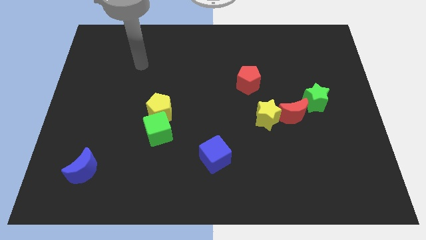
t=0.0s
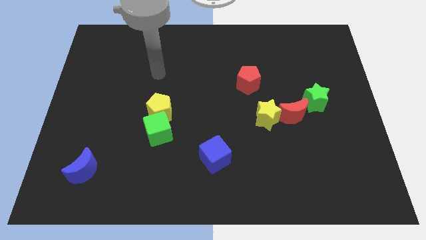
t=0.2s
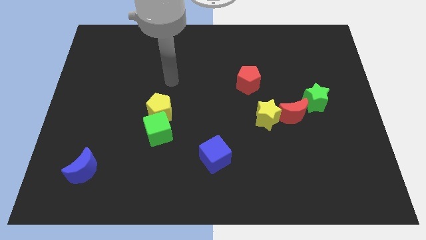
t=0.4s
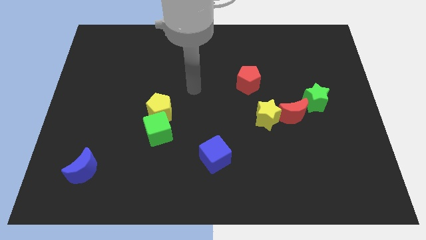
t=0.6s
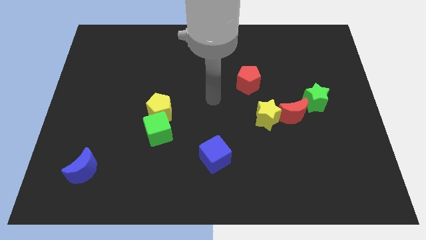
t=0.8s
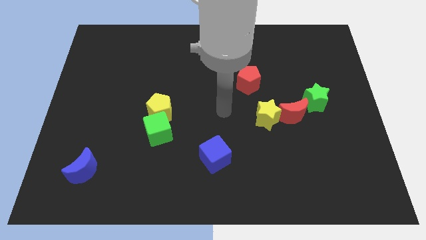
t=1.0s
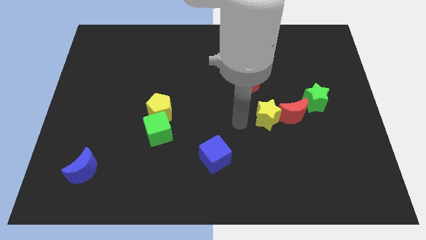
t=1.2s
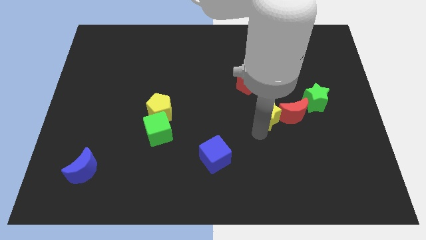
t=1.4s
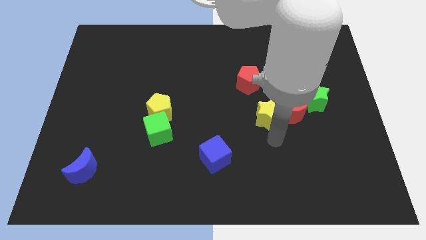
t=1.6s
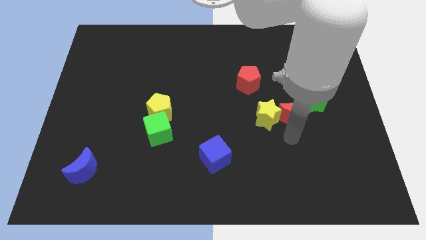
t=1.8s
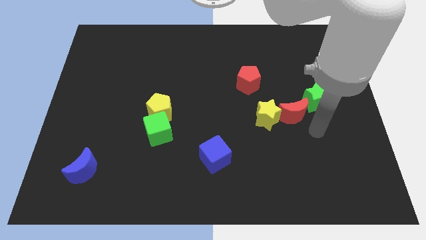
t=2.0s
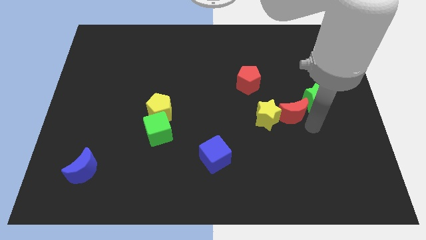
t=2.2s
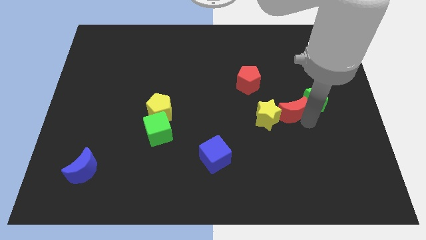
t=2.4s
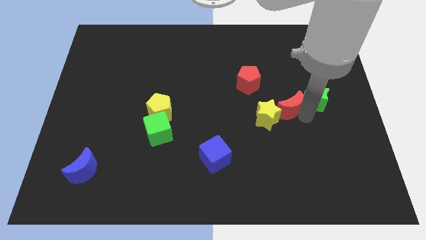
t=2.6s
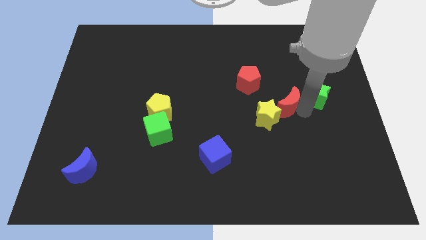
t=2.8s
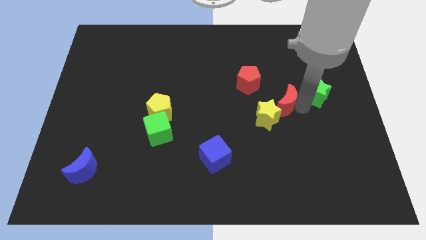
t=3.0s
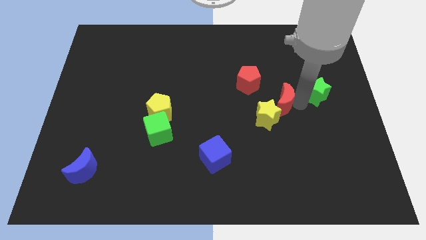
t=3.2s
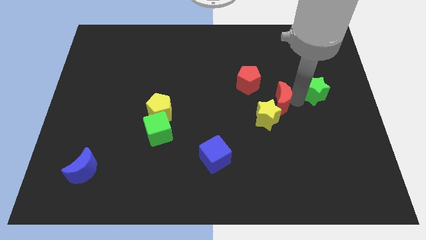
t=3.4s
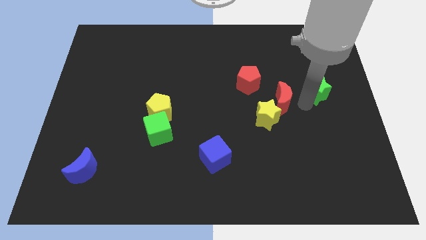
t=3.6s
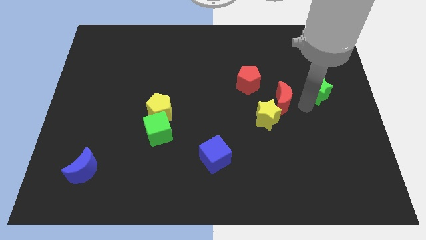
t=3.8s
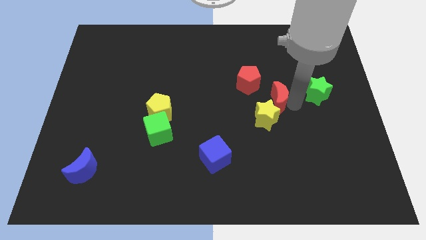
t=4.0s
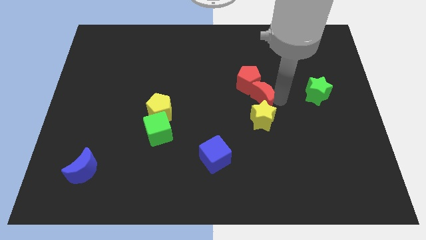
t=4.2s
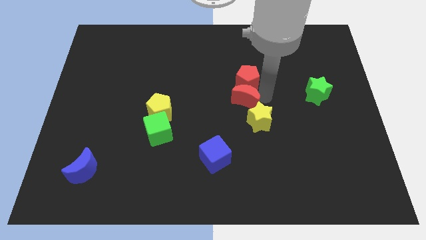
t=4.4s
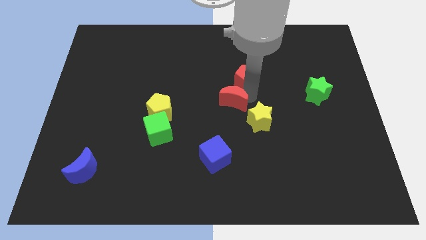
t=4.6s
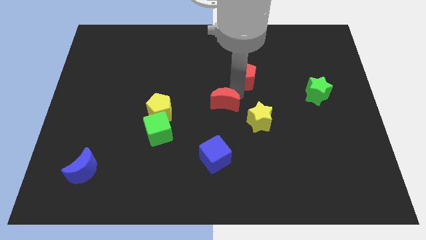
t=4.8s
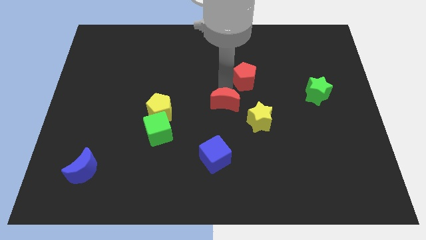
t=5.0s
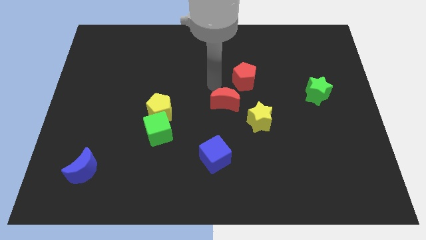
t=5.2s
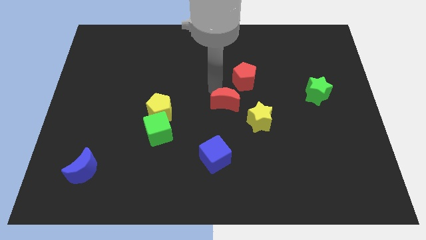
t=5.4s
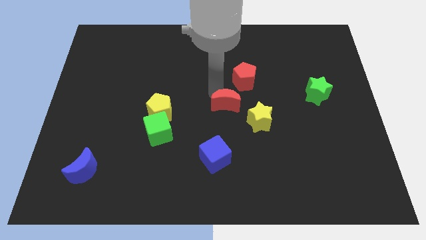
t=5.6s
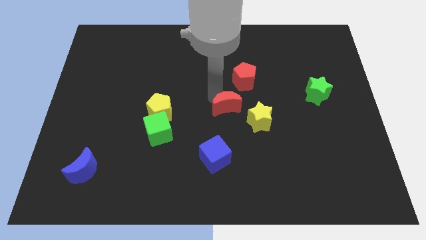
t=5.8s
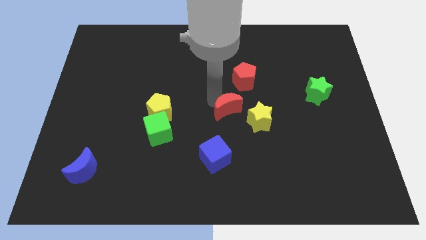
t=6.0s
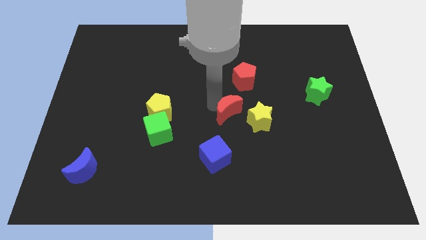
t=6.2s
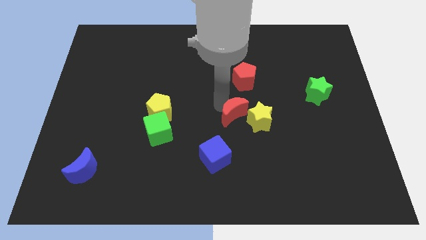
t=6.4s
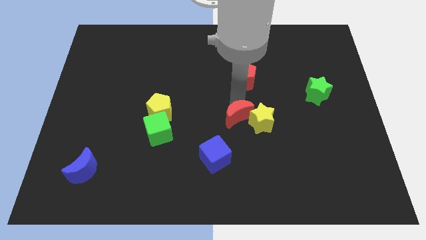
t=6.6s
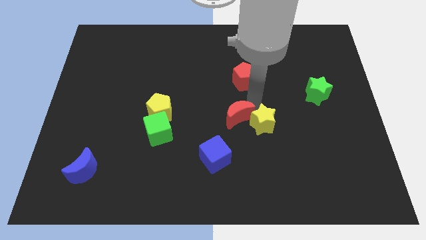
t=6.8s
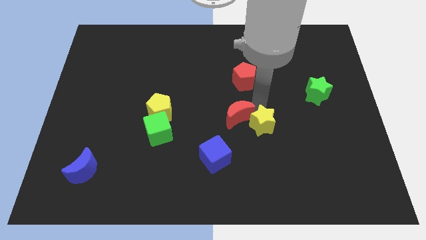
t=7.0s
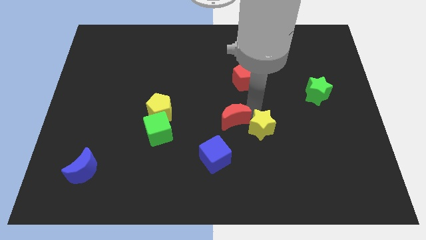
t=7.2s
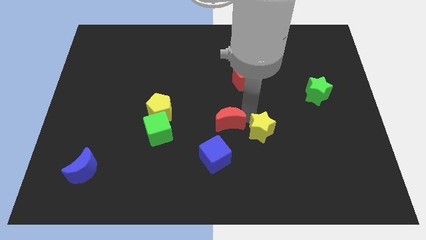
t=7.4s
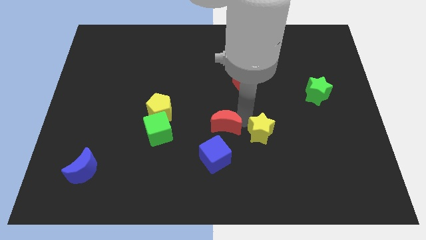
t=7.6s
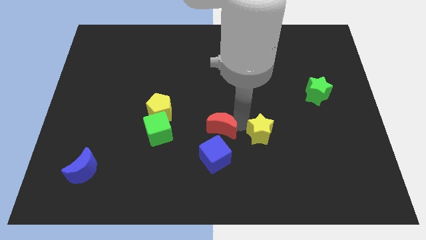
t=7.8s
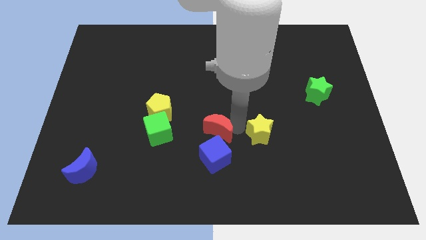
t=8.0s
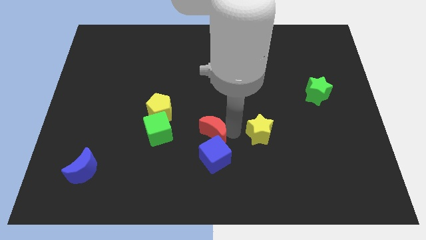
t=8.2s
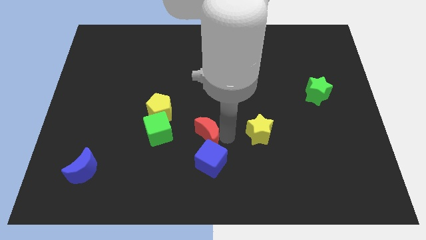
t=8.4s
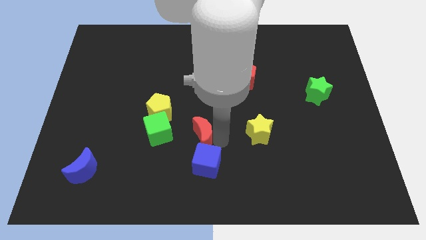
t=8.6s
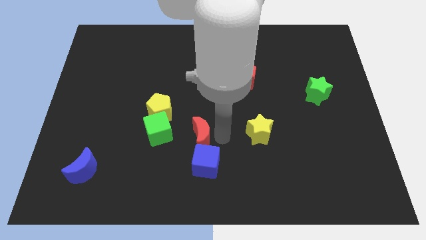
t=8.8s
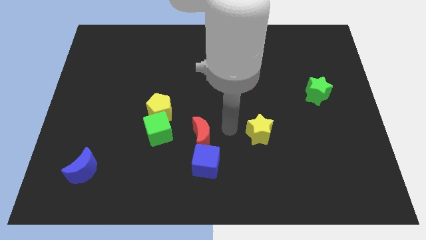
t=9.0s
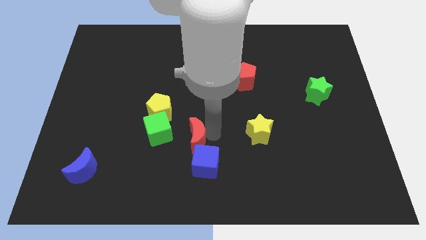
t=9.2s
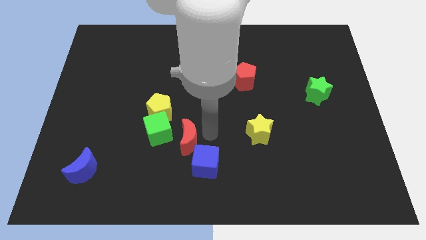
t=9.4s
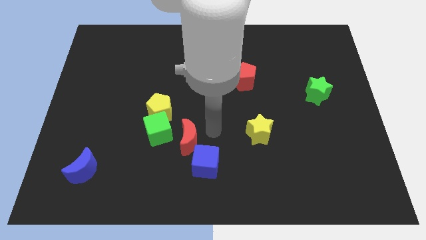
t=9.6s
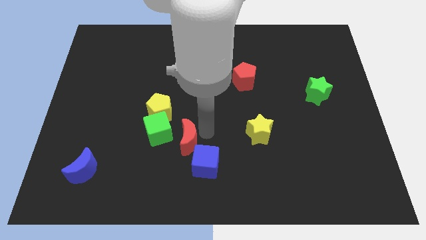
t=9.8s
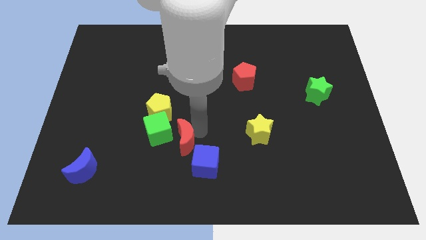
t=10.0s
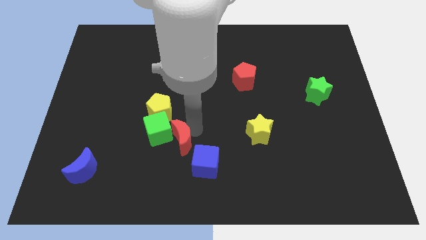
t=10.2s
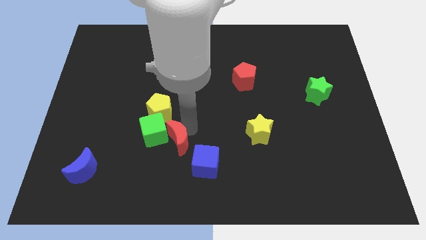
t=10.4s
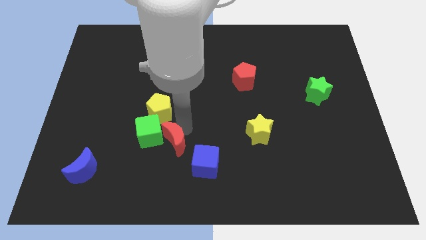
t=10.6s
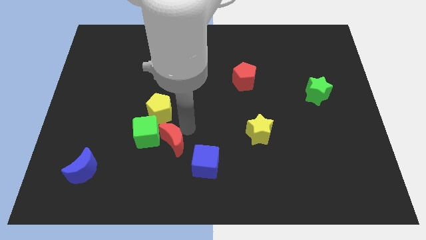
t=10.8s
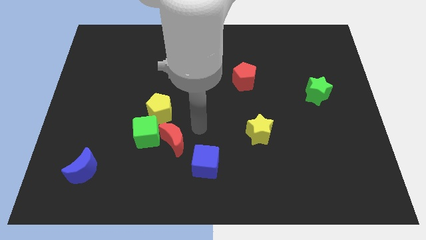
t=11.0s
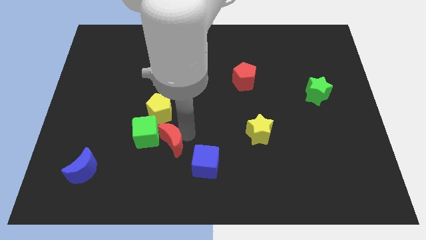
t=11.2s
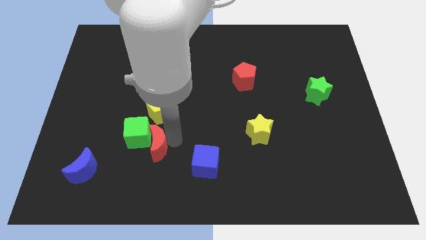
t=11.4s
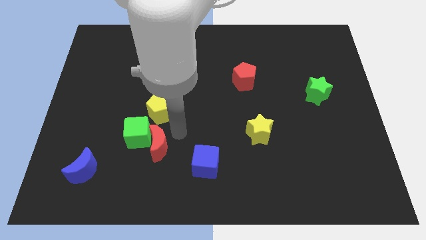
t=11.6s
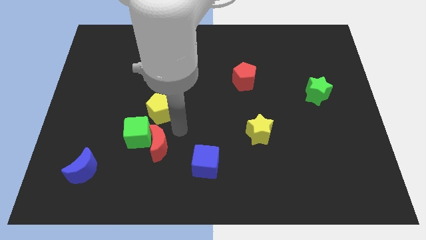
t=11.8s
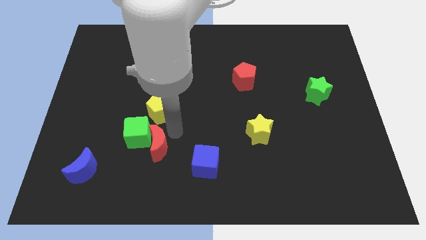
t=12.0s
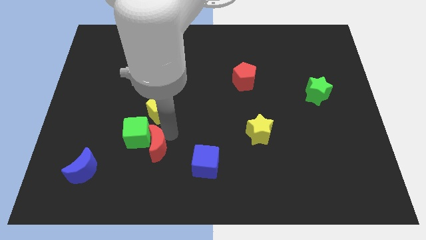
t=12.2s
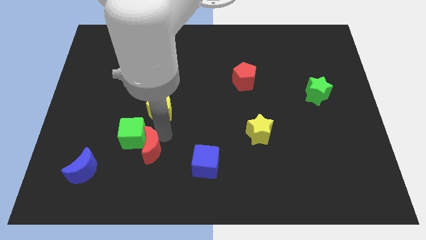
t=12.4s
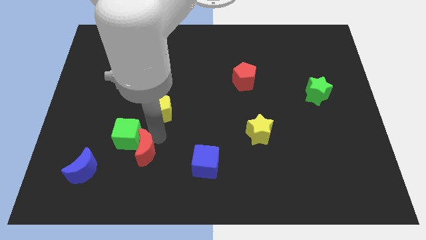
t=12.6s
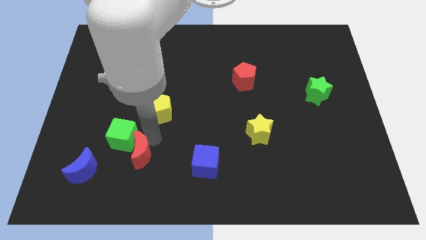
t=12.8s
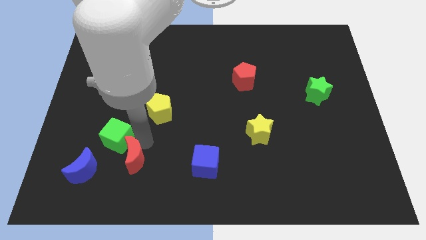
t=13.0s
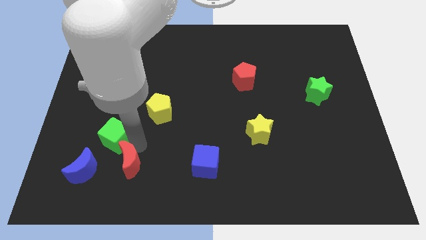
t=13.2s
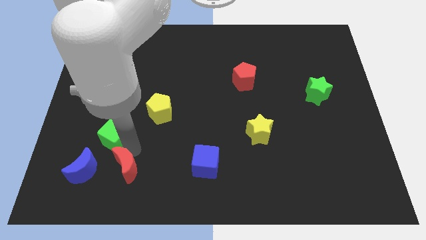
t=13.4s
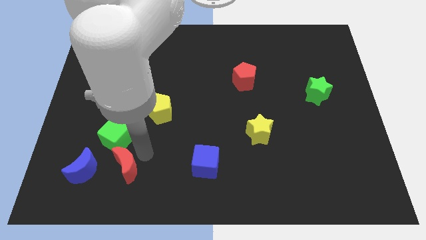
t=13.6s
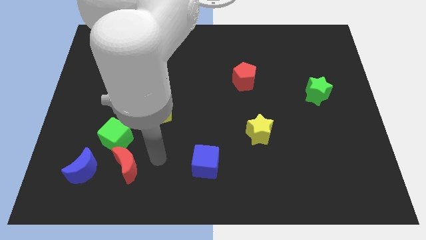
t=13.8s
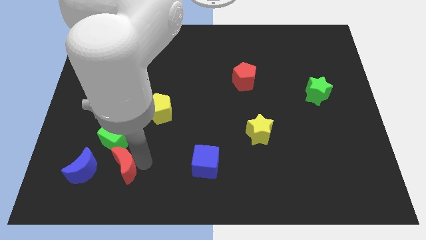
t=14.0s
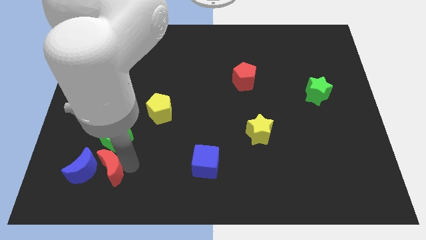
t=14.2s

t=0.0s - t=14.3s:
move the red moon next to the blue moon
